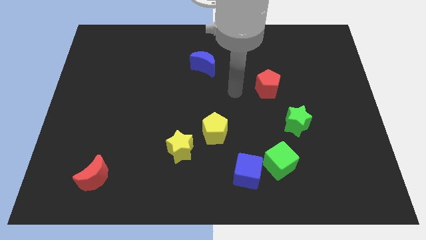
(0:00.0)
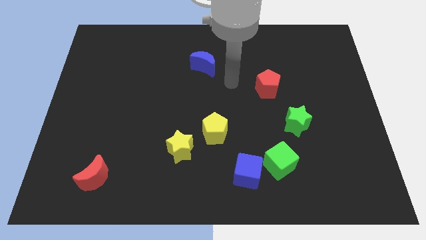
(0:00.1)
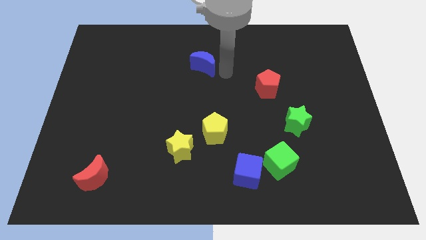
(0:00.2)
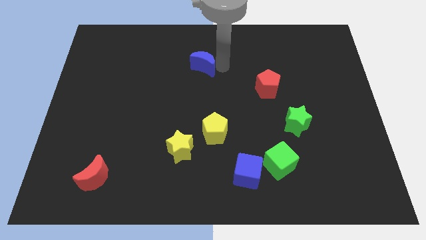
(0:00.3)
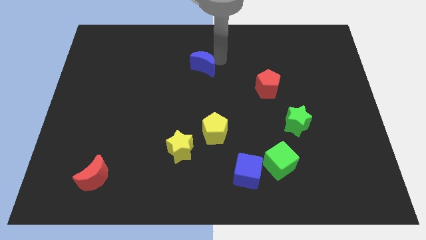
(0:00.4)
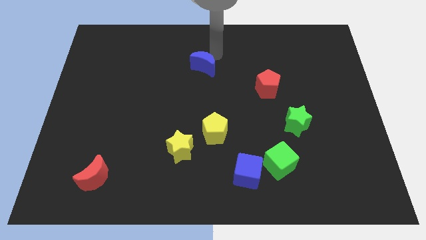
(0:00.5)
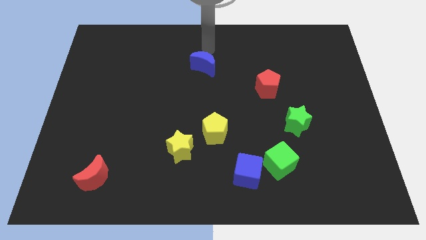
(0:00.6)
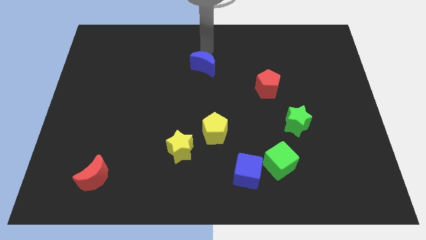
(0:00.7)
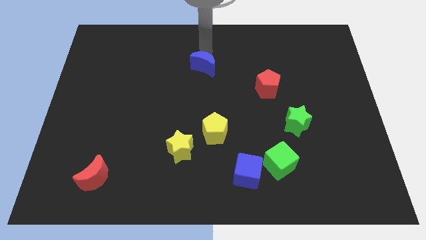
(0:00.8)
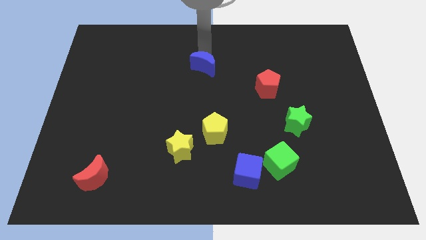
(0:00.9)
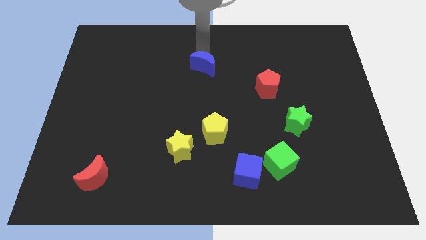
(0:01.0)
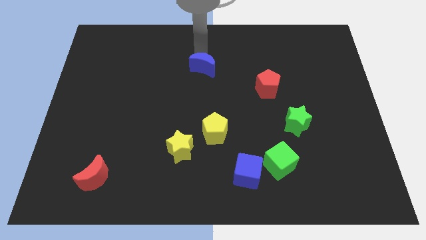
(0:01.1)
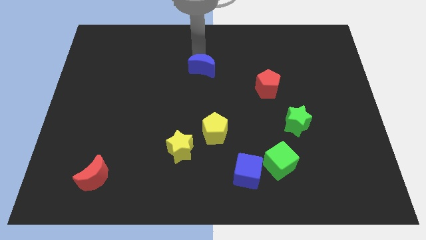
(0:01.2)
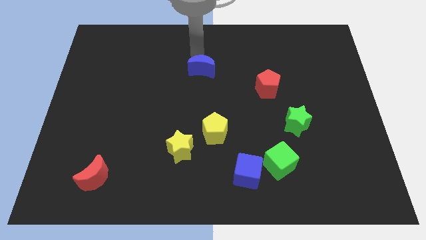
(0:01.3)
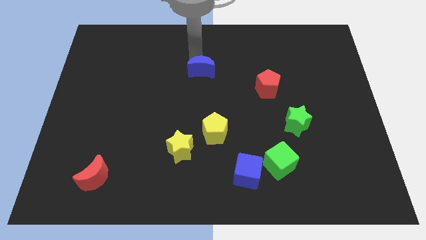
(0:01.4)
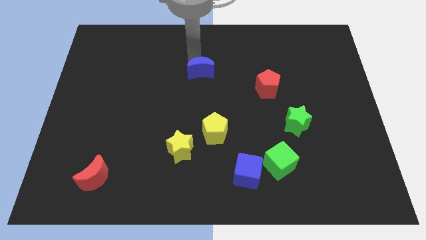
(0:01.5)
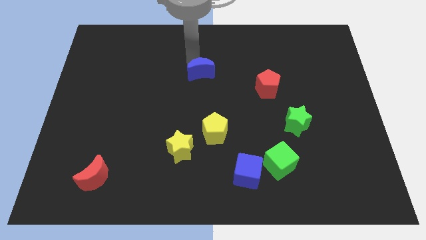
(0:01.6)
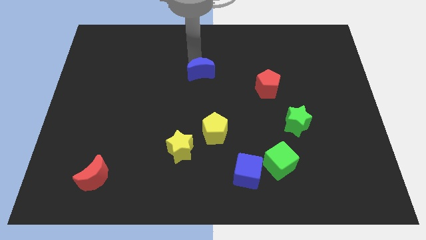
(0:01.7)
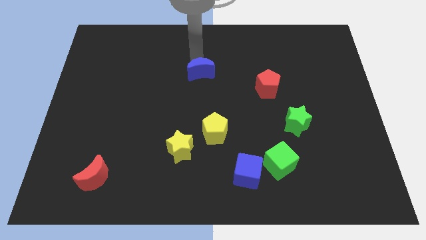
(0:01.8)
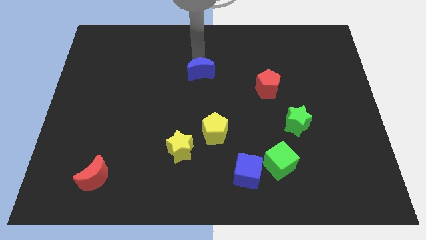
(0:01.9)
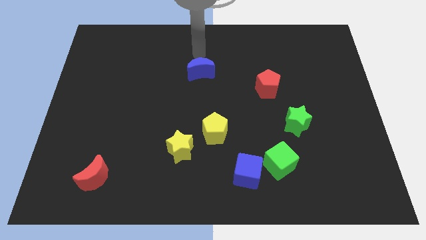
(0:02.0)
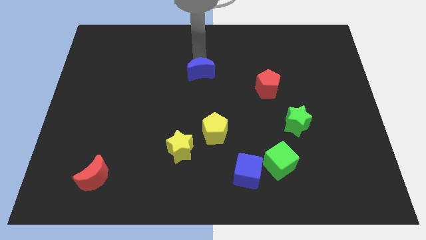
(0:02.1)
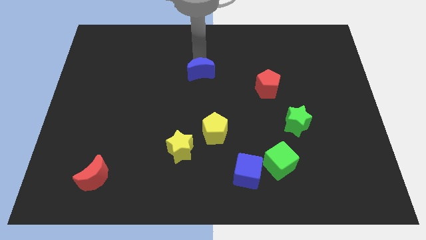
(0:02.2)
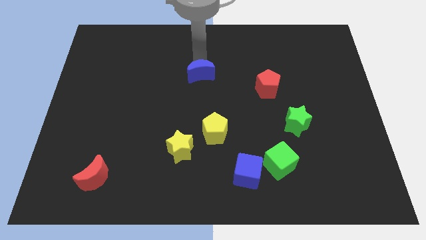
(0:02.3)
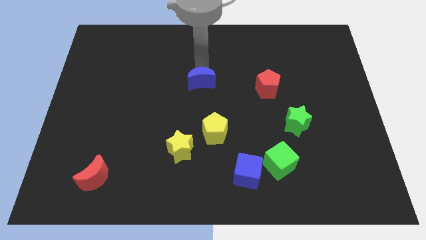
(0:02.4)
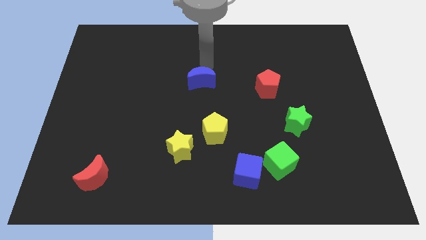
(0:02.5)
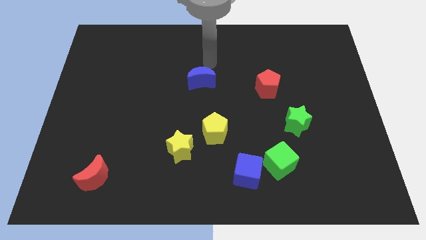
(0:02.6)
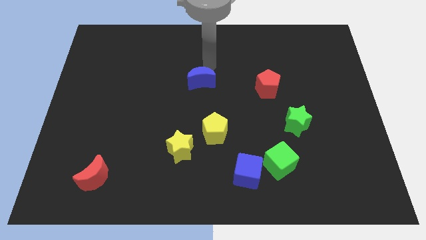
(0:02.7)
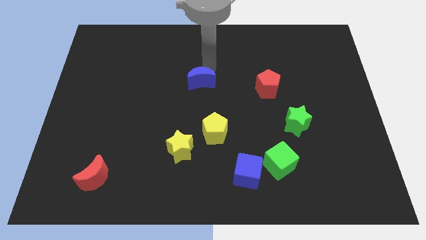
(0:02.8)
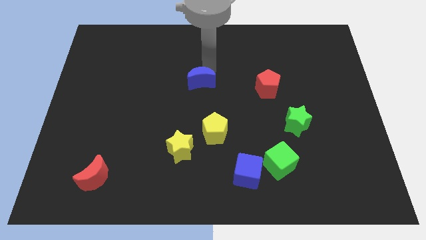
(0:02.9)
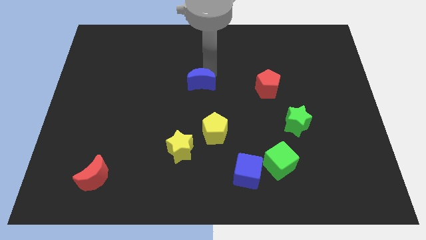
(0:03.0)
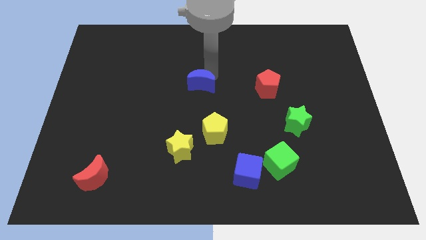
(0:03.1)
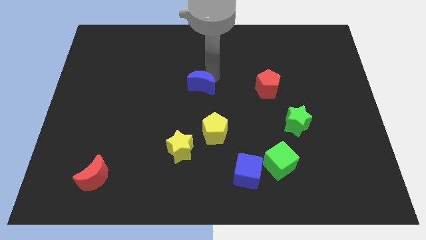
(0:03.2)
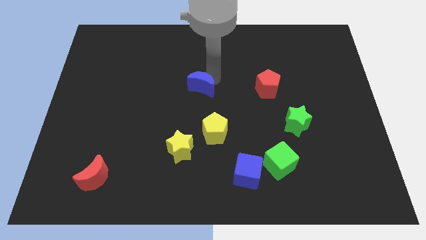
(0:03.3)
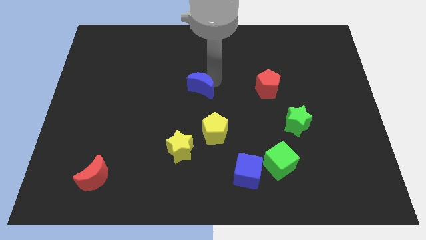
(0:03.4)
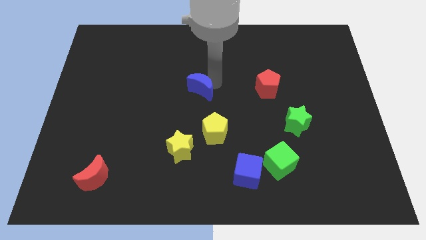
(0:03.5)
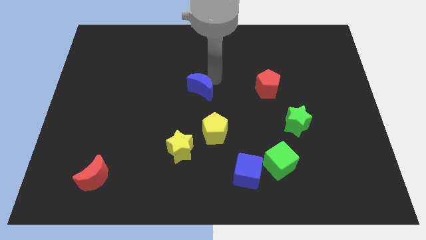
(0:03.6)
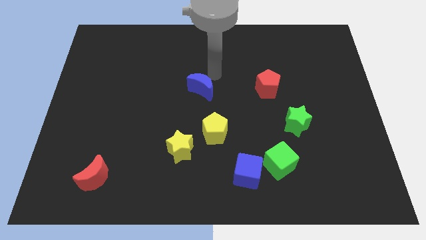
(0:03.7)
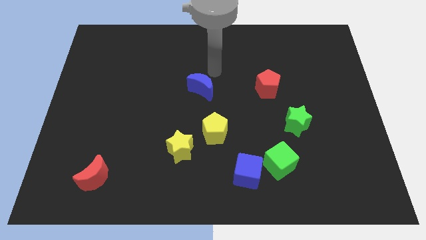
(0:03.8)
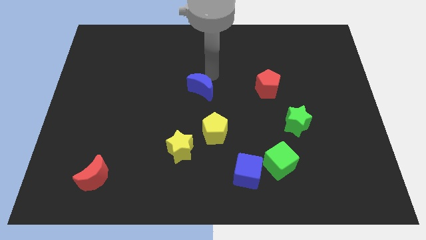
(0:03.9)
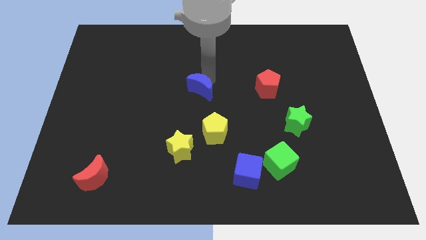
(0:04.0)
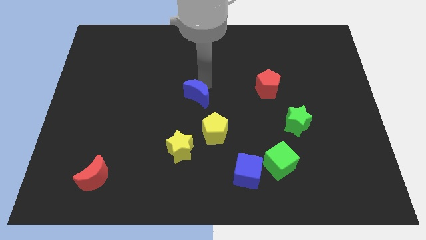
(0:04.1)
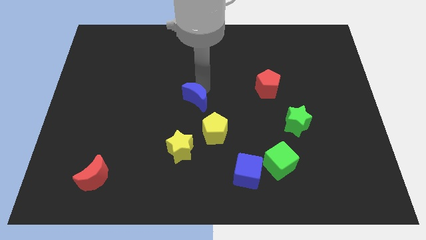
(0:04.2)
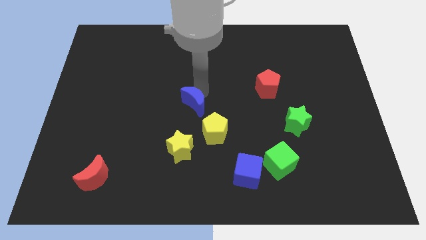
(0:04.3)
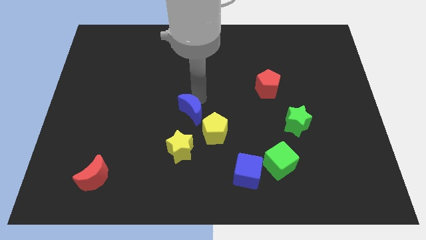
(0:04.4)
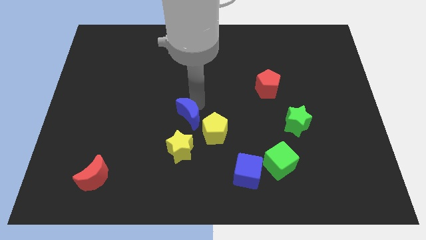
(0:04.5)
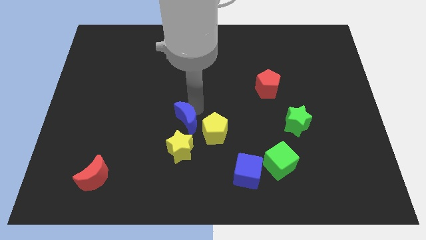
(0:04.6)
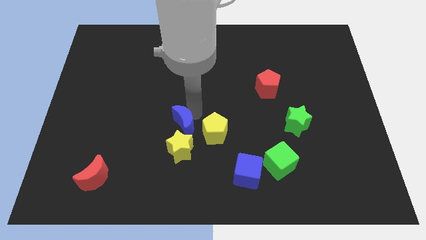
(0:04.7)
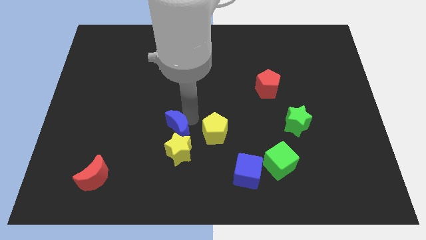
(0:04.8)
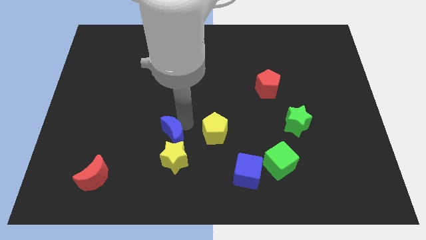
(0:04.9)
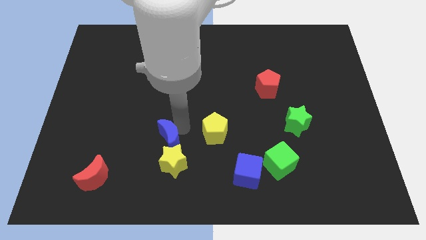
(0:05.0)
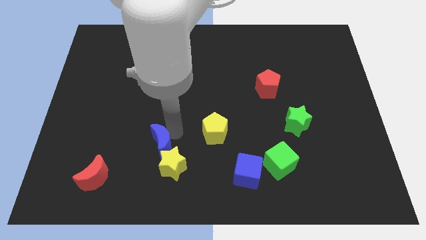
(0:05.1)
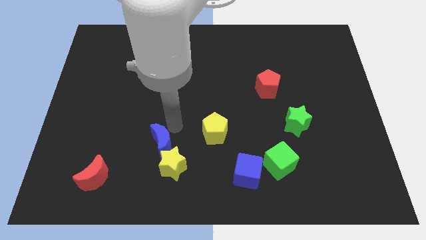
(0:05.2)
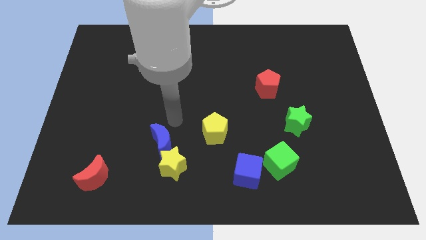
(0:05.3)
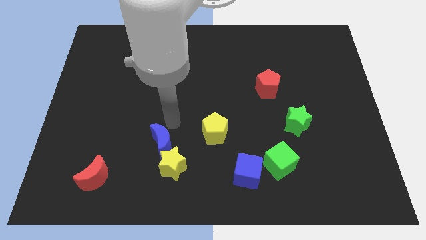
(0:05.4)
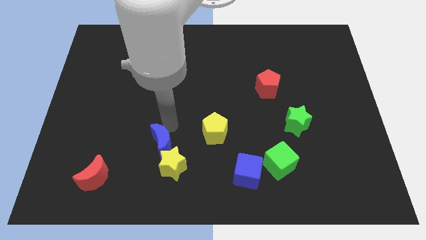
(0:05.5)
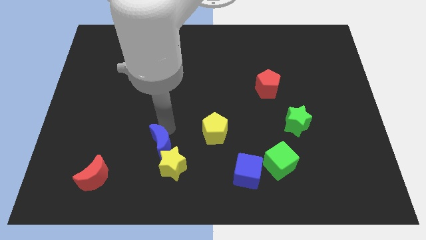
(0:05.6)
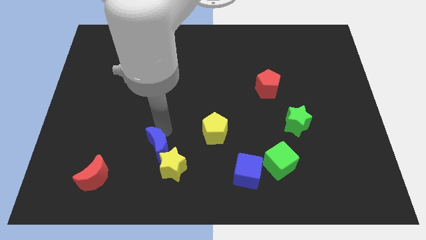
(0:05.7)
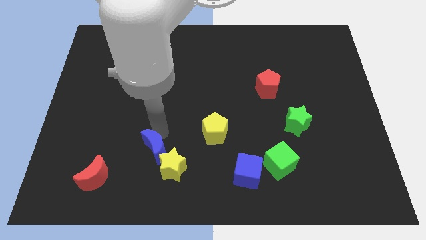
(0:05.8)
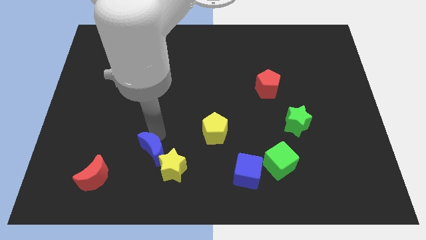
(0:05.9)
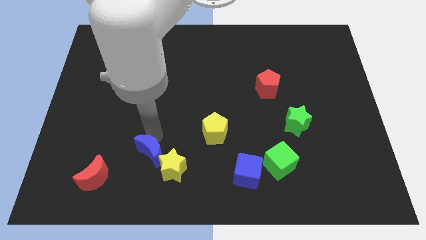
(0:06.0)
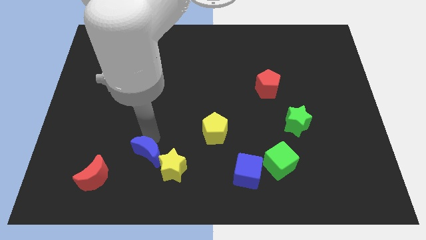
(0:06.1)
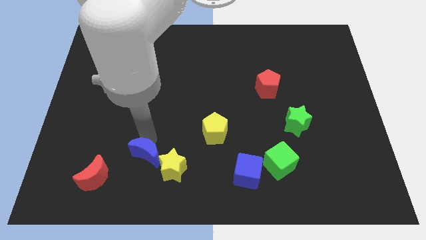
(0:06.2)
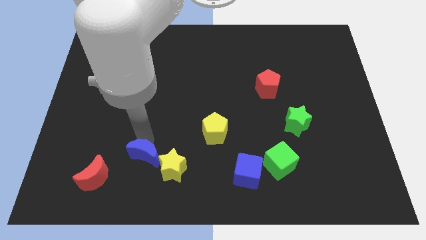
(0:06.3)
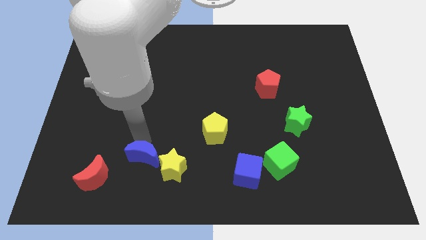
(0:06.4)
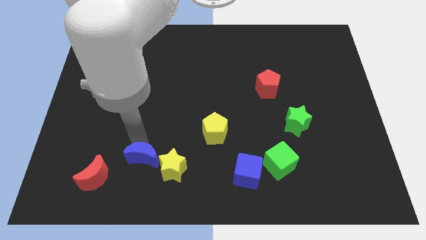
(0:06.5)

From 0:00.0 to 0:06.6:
move the blue moon to the right side of the red moon
